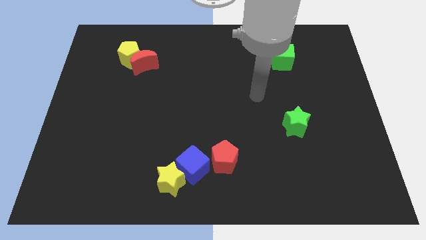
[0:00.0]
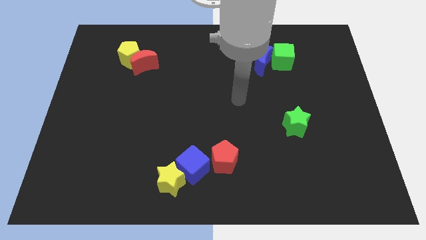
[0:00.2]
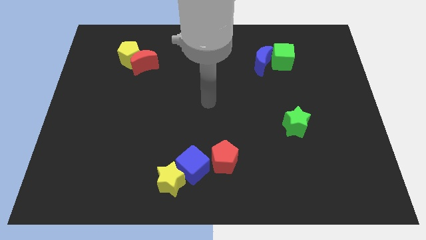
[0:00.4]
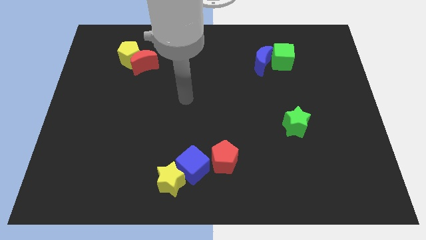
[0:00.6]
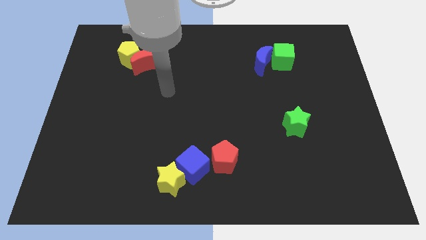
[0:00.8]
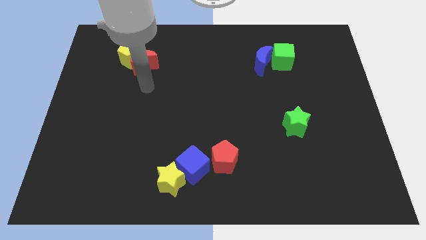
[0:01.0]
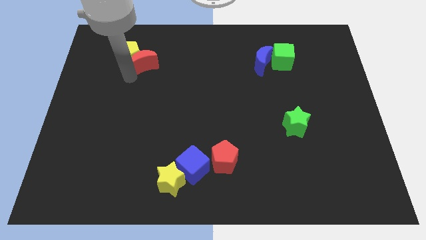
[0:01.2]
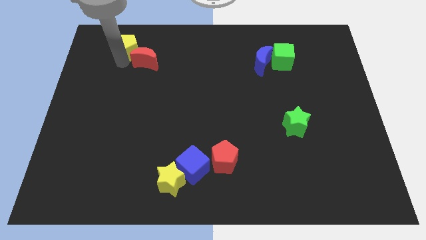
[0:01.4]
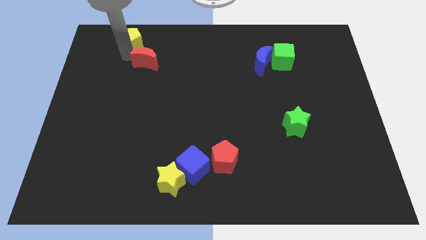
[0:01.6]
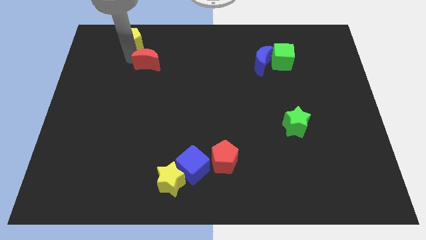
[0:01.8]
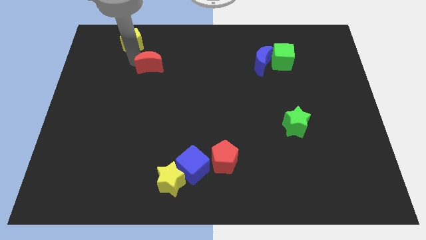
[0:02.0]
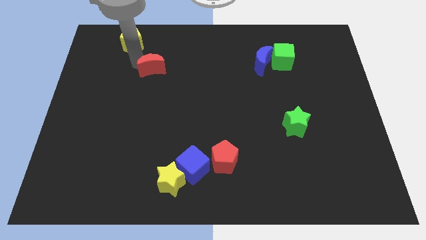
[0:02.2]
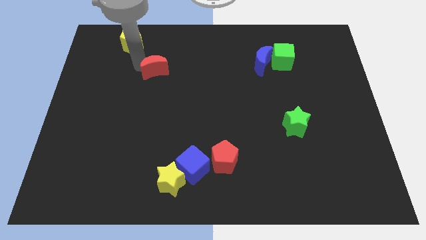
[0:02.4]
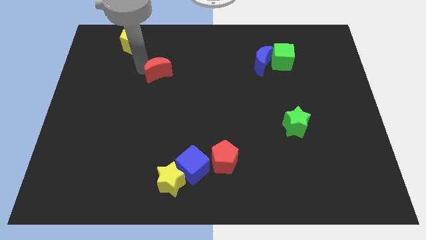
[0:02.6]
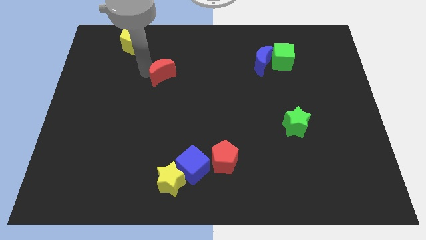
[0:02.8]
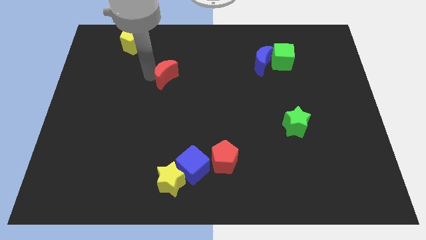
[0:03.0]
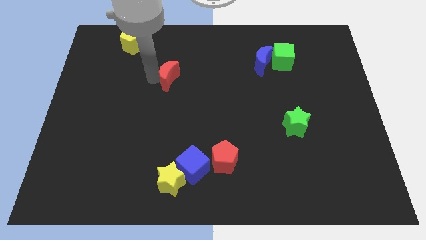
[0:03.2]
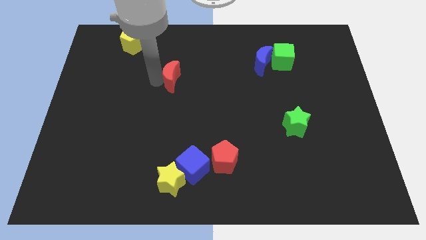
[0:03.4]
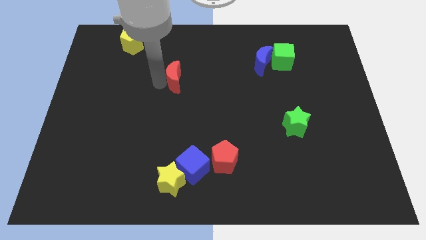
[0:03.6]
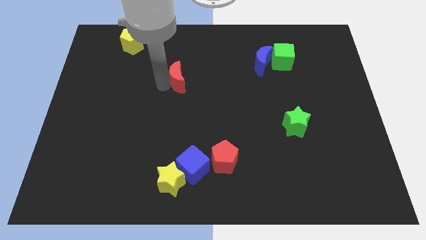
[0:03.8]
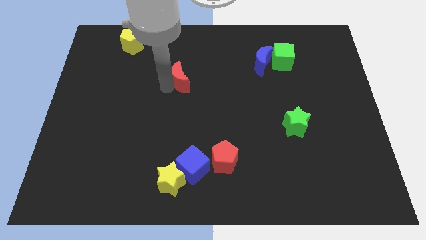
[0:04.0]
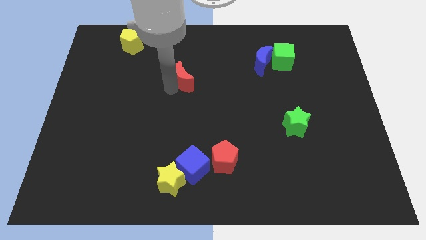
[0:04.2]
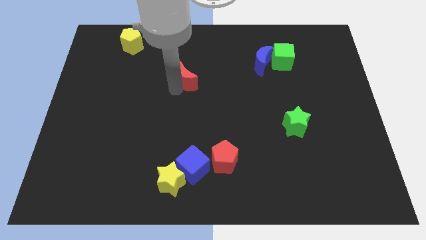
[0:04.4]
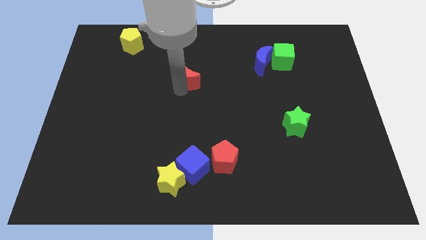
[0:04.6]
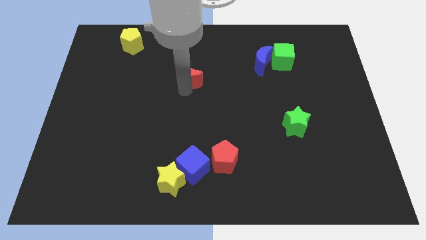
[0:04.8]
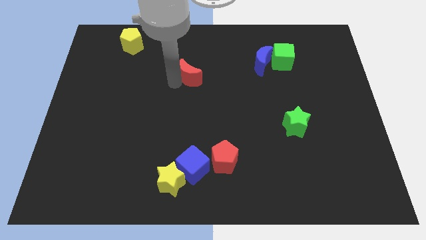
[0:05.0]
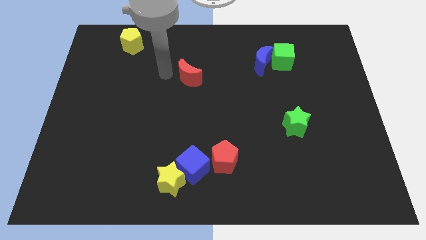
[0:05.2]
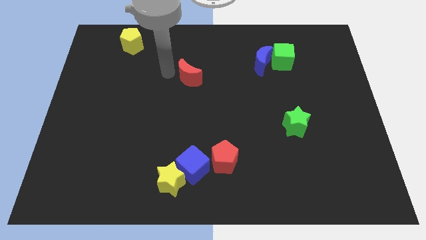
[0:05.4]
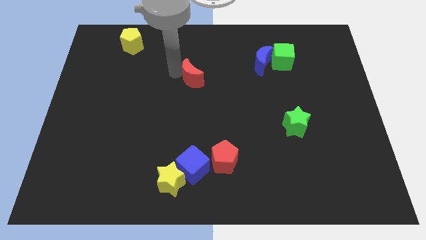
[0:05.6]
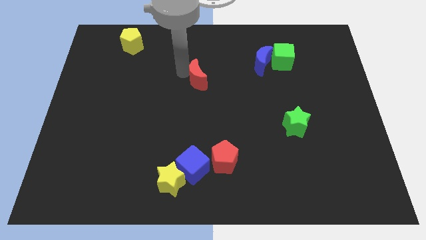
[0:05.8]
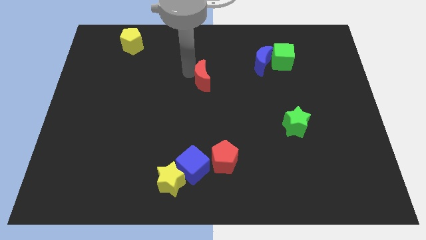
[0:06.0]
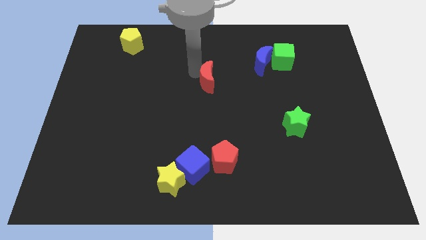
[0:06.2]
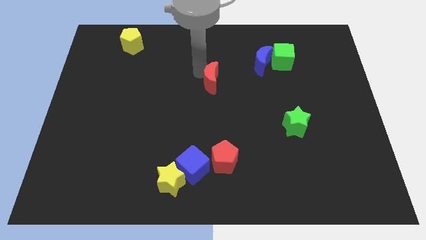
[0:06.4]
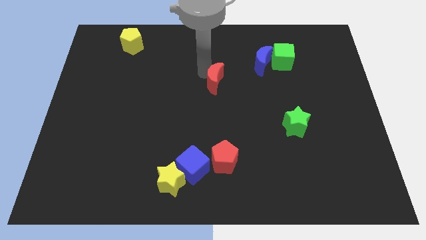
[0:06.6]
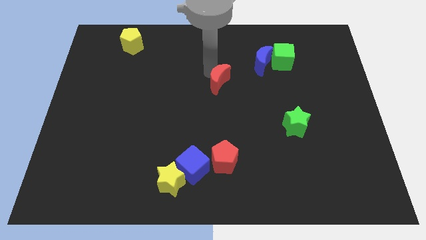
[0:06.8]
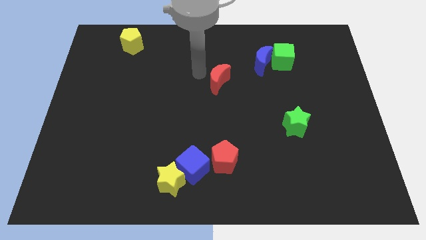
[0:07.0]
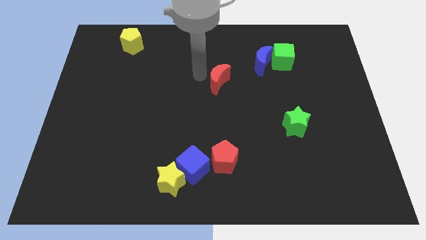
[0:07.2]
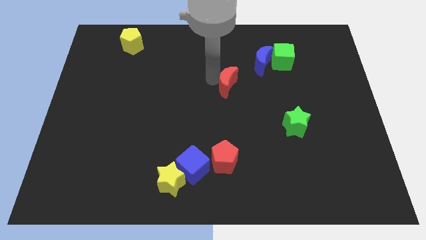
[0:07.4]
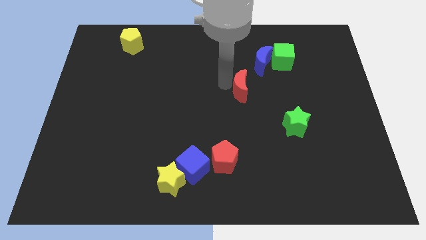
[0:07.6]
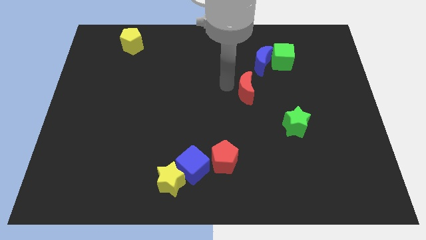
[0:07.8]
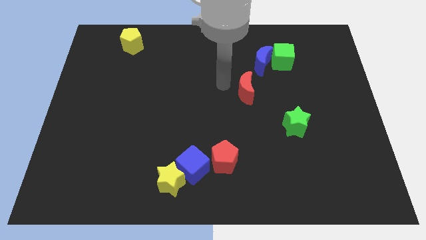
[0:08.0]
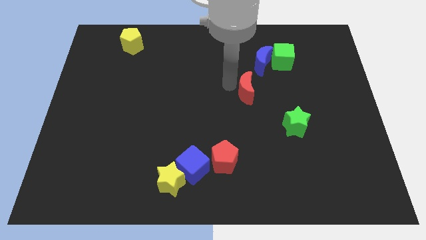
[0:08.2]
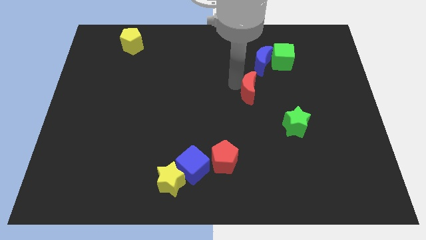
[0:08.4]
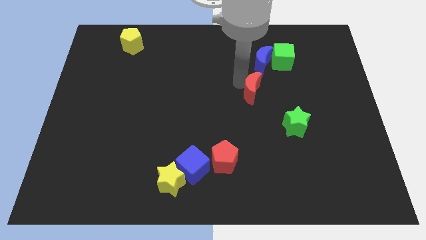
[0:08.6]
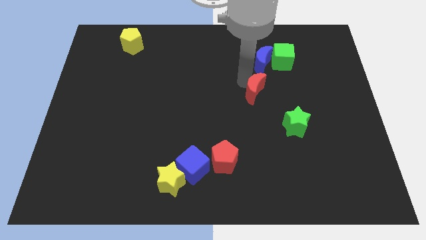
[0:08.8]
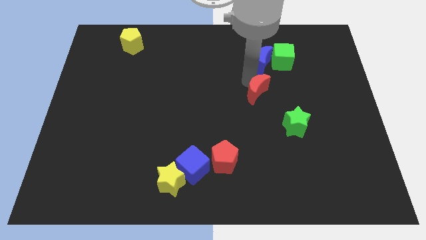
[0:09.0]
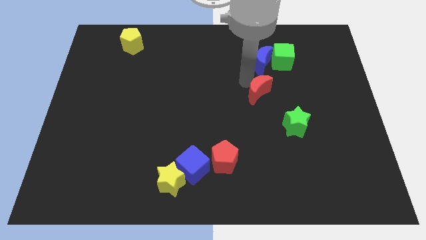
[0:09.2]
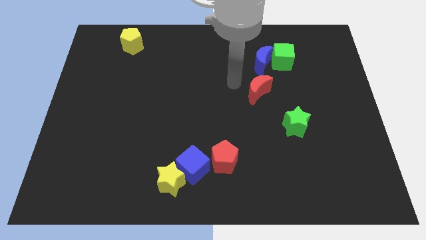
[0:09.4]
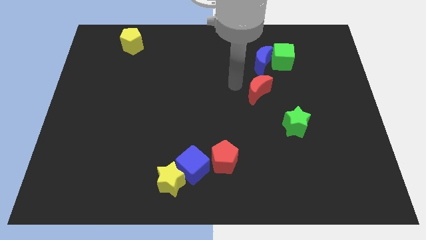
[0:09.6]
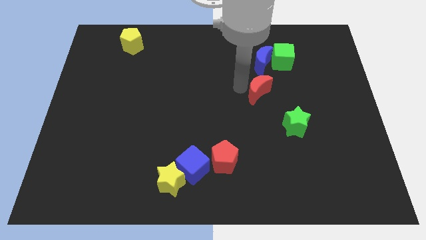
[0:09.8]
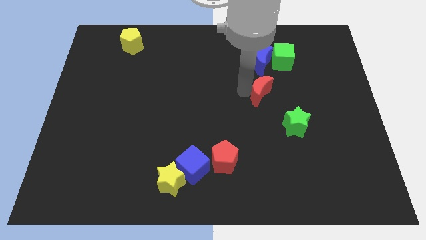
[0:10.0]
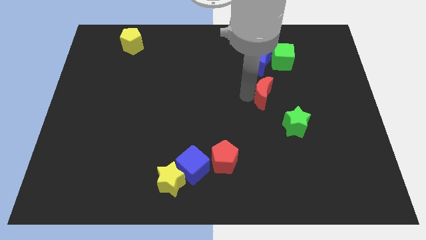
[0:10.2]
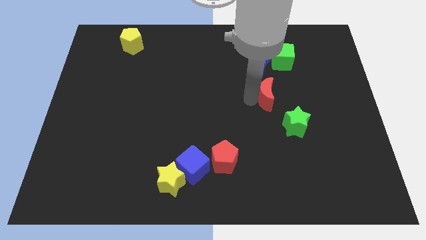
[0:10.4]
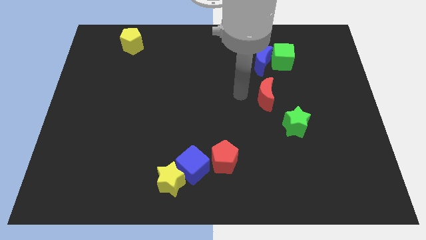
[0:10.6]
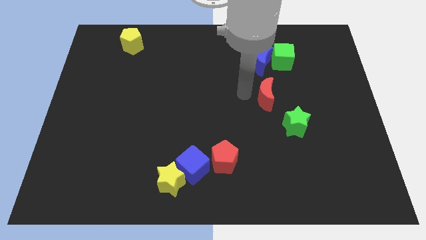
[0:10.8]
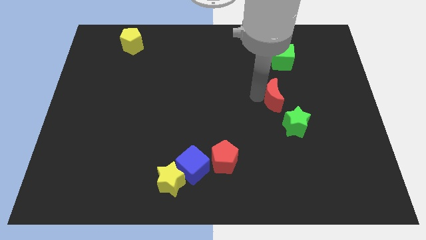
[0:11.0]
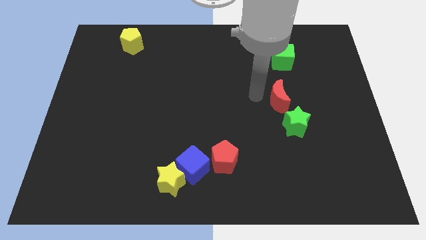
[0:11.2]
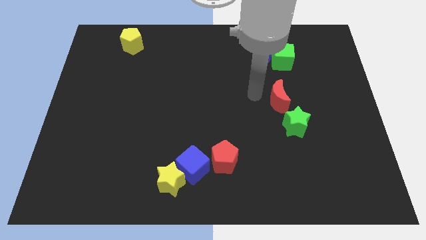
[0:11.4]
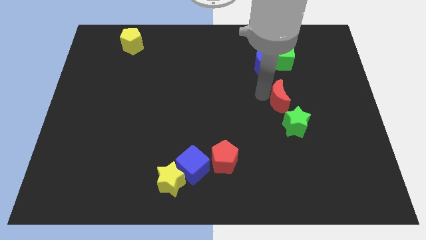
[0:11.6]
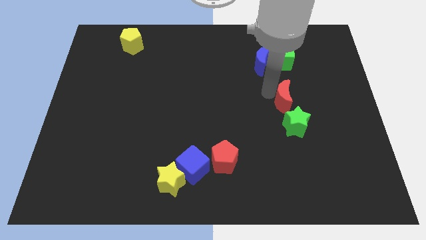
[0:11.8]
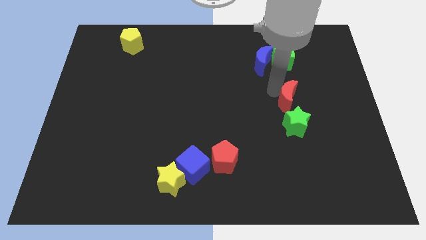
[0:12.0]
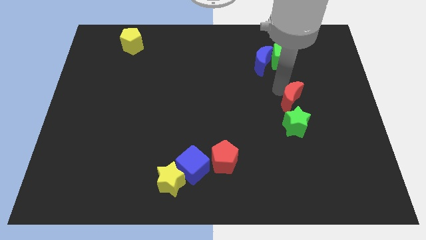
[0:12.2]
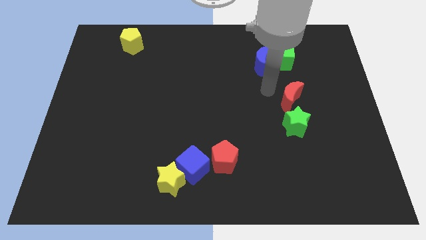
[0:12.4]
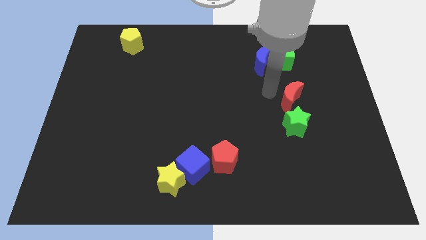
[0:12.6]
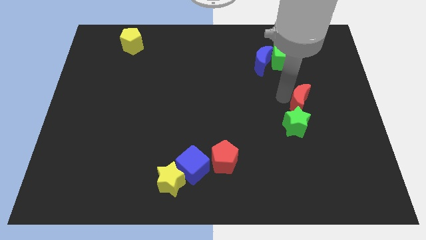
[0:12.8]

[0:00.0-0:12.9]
push the red moon to the top right side of the green star

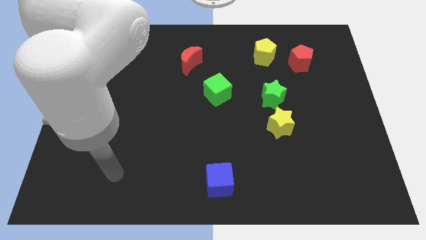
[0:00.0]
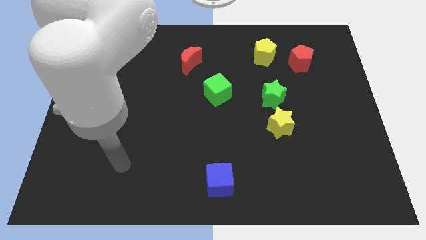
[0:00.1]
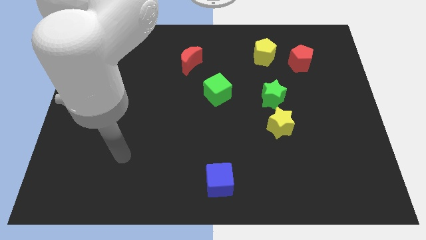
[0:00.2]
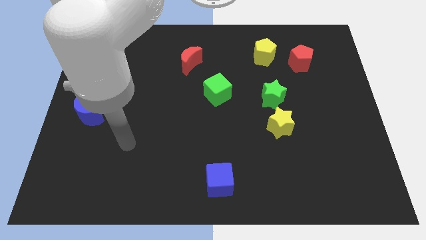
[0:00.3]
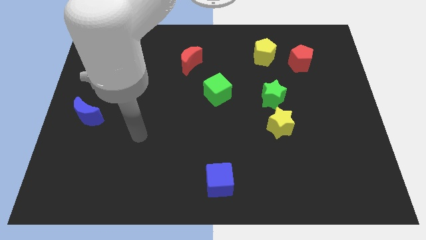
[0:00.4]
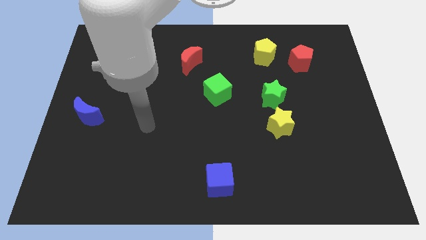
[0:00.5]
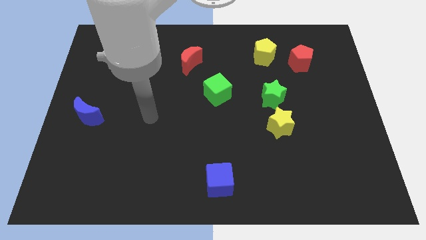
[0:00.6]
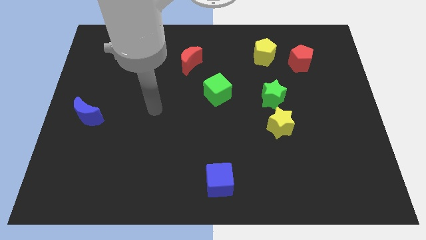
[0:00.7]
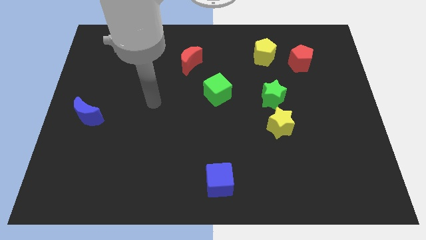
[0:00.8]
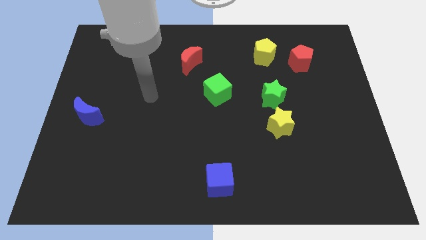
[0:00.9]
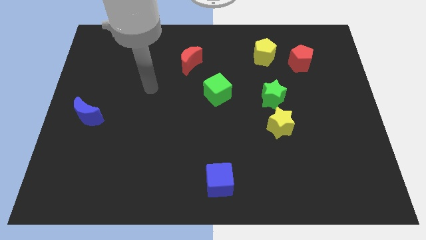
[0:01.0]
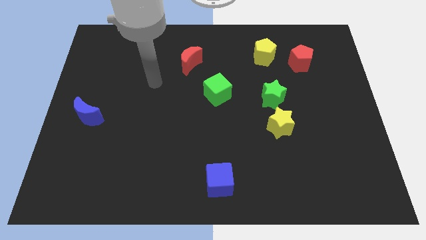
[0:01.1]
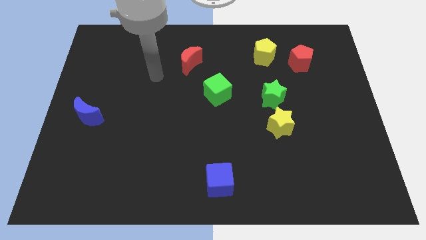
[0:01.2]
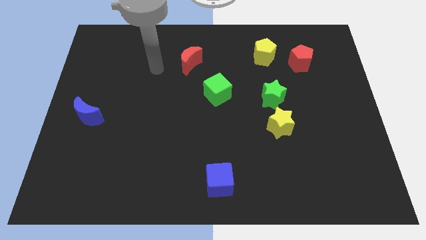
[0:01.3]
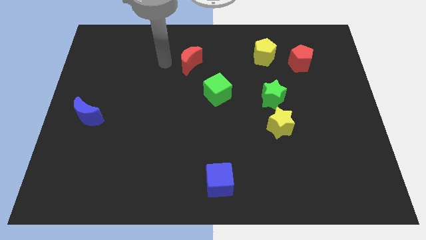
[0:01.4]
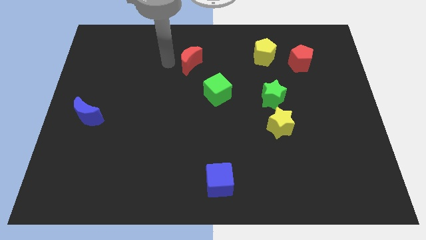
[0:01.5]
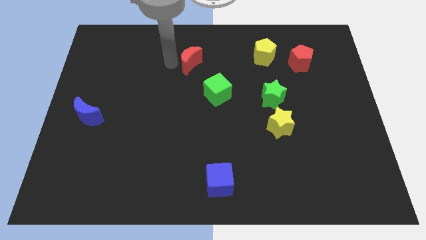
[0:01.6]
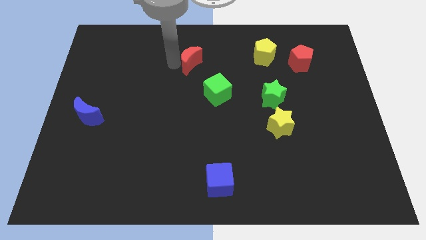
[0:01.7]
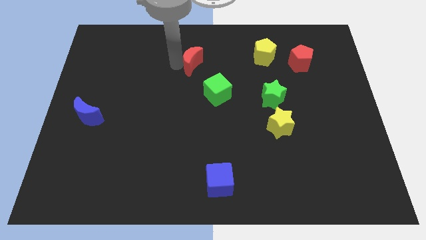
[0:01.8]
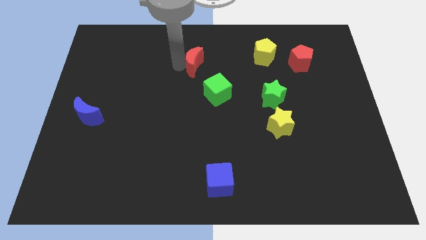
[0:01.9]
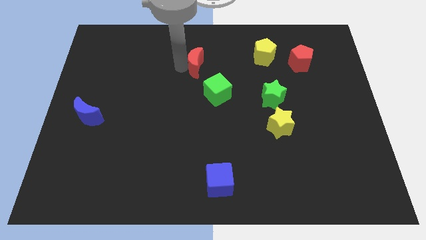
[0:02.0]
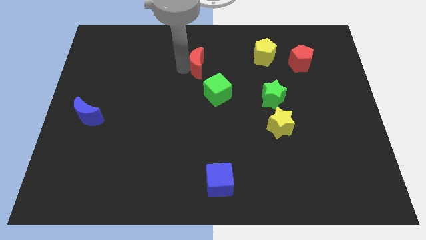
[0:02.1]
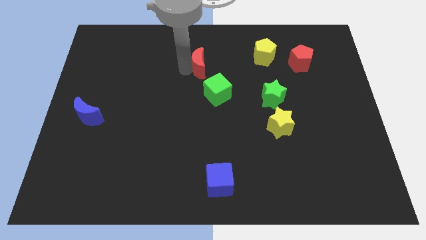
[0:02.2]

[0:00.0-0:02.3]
push the red moon above the green cube
